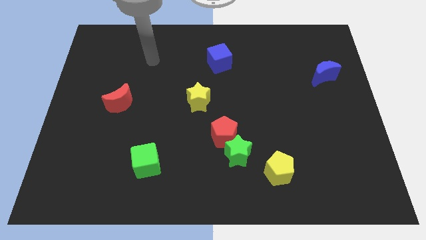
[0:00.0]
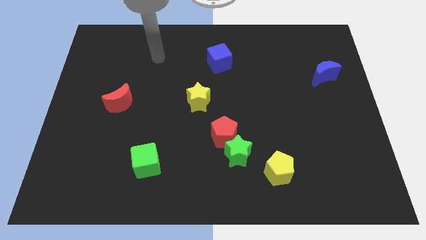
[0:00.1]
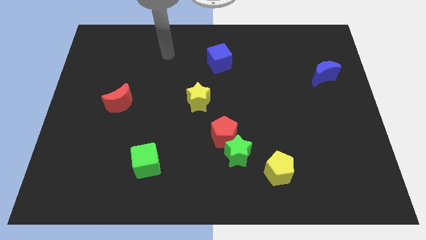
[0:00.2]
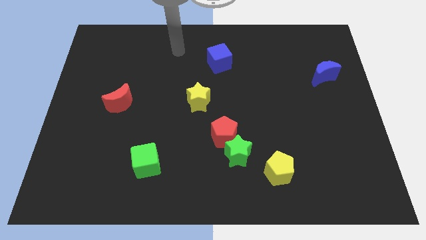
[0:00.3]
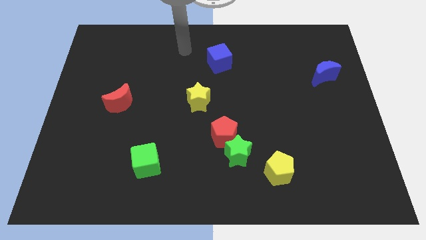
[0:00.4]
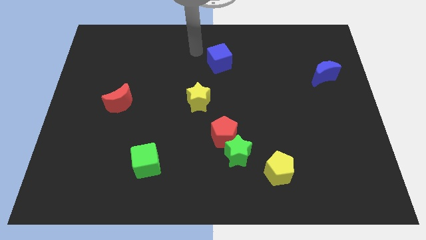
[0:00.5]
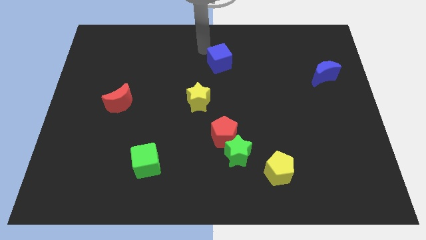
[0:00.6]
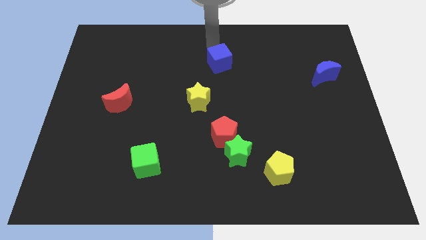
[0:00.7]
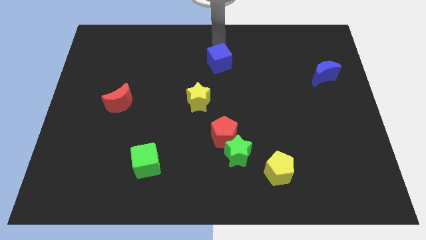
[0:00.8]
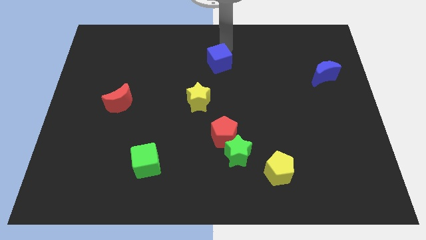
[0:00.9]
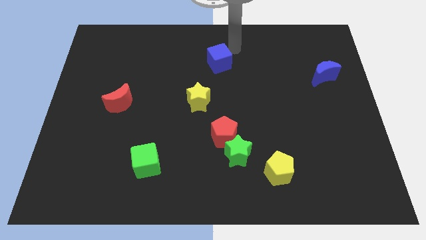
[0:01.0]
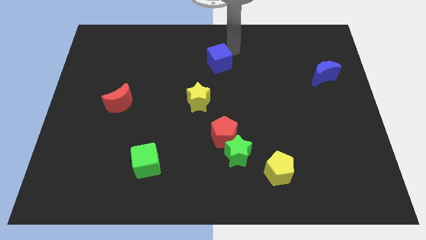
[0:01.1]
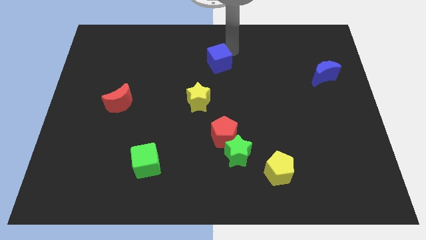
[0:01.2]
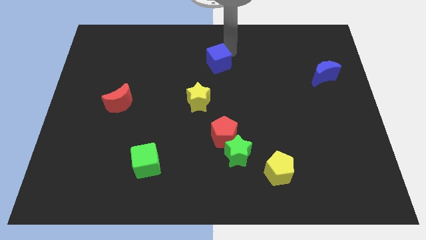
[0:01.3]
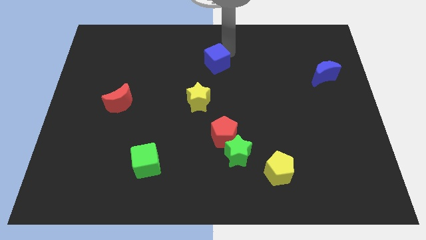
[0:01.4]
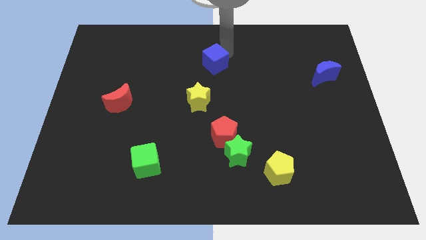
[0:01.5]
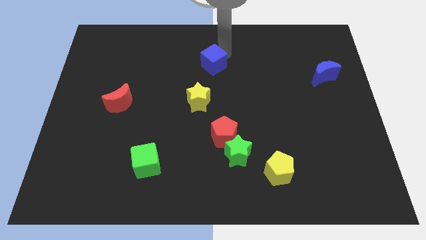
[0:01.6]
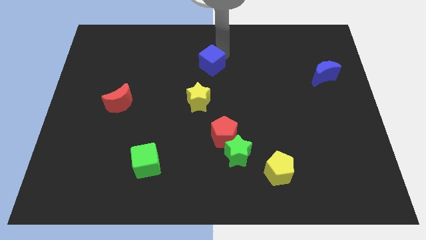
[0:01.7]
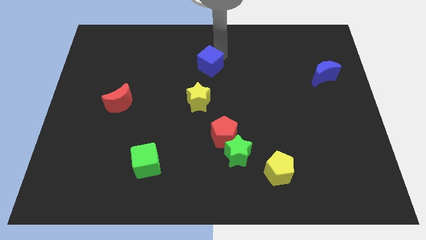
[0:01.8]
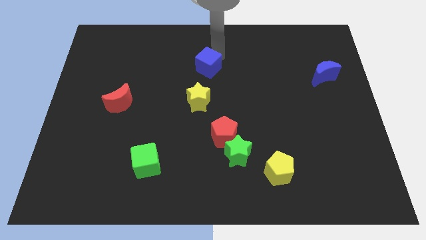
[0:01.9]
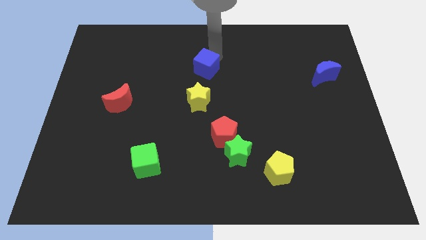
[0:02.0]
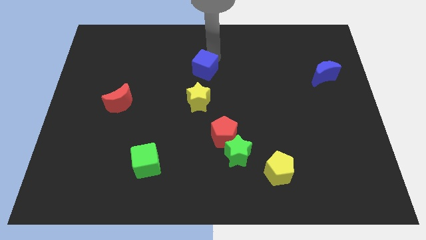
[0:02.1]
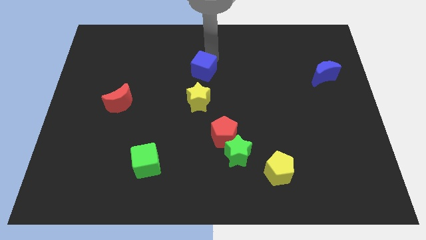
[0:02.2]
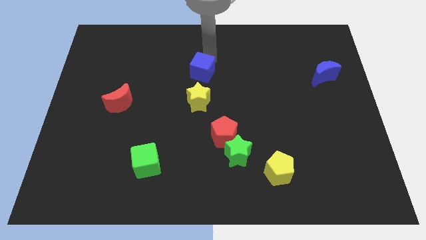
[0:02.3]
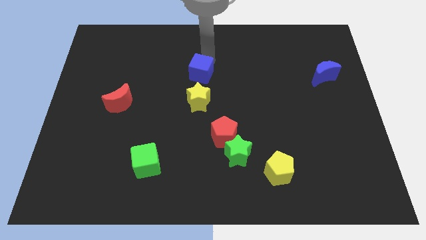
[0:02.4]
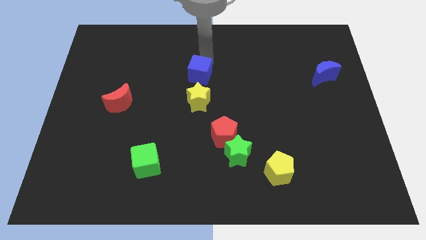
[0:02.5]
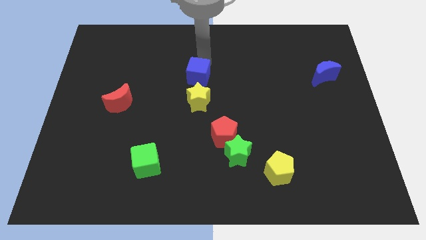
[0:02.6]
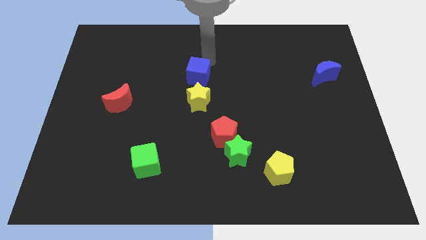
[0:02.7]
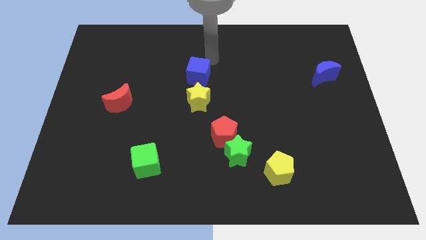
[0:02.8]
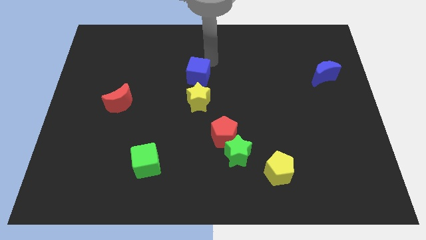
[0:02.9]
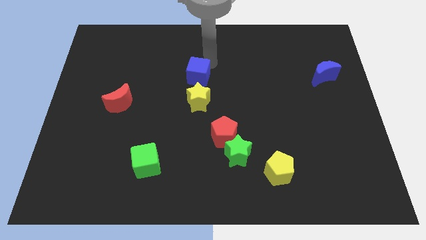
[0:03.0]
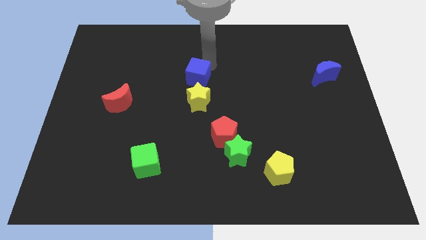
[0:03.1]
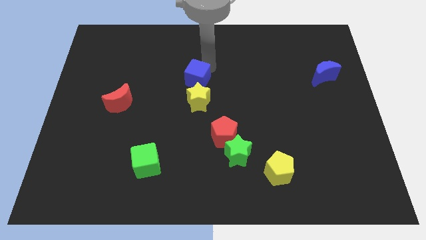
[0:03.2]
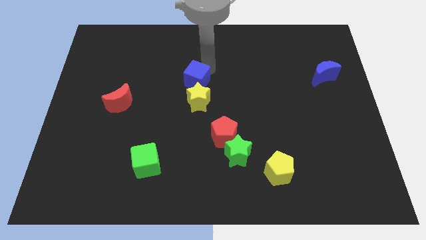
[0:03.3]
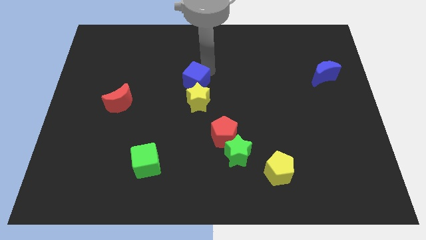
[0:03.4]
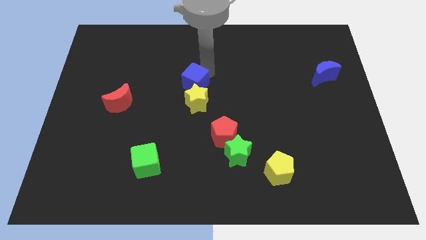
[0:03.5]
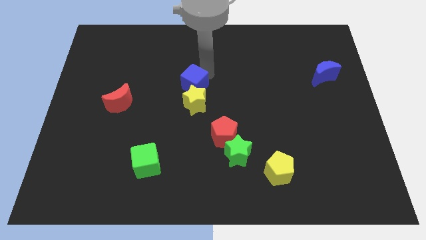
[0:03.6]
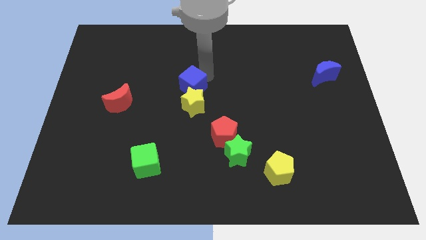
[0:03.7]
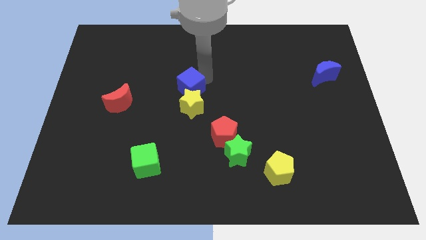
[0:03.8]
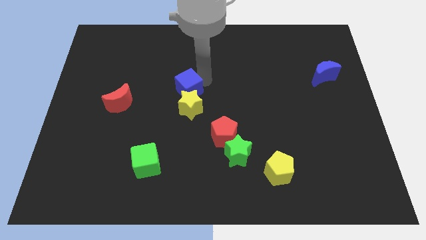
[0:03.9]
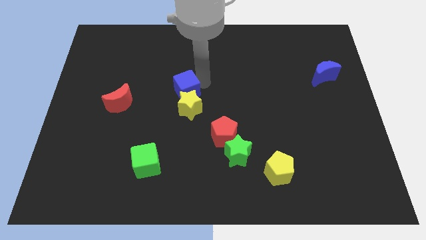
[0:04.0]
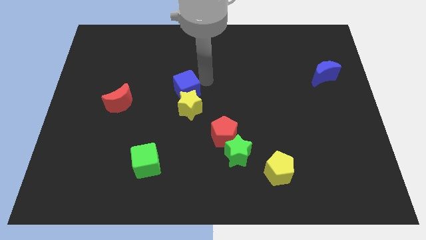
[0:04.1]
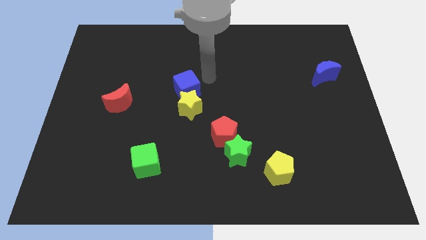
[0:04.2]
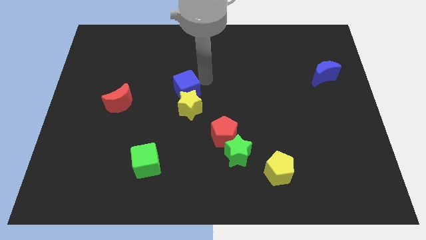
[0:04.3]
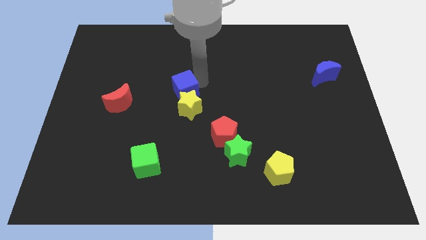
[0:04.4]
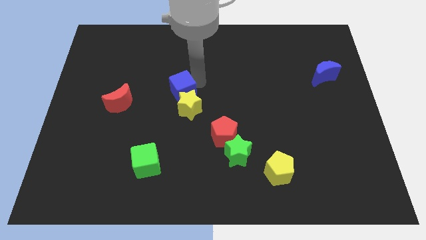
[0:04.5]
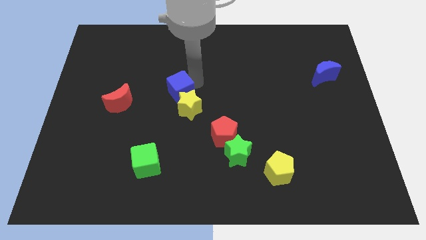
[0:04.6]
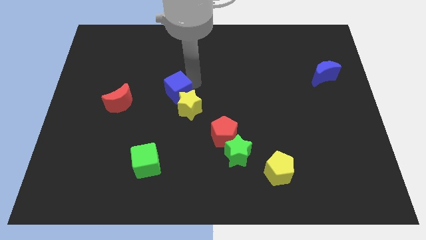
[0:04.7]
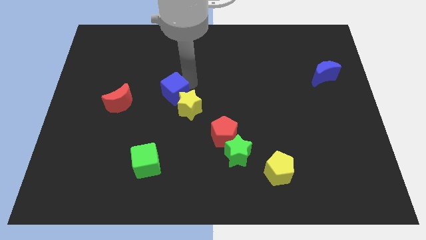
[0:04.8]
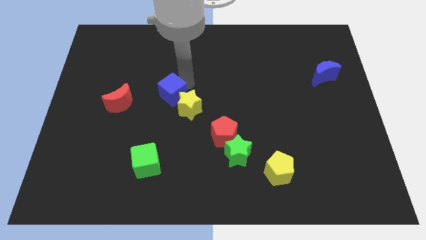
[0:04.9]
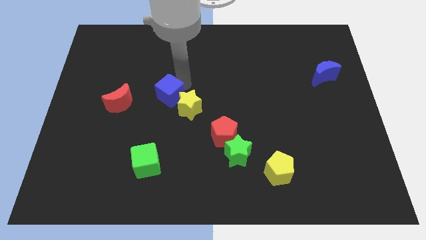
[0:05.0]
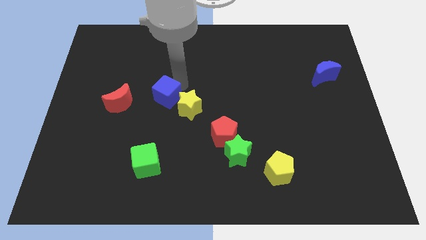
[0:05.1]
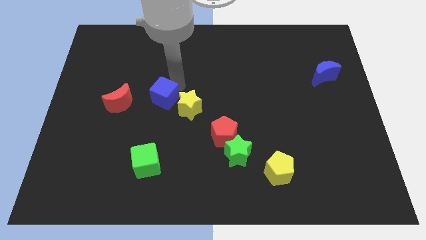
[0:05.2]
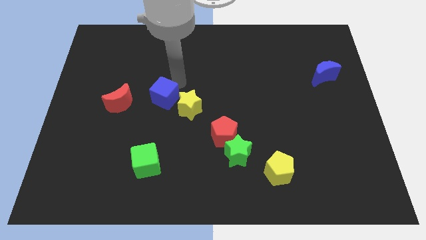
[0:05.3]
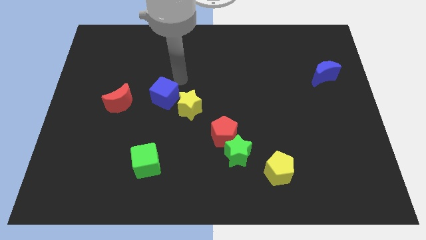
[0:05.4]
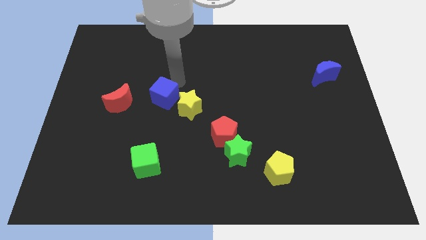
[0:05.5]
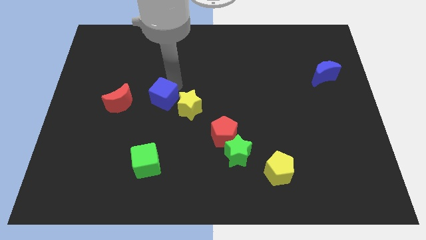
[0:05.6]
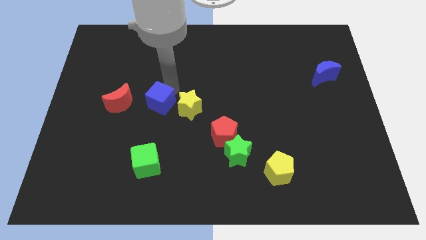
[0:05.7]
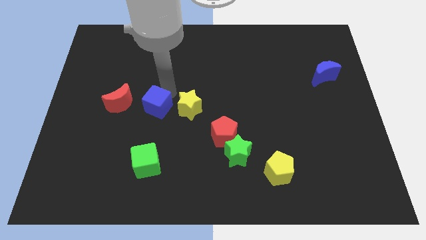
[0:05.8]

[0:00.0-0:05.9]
push the blue cube downwards and to the left diagonally

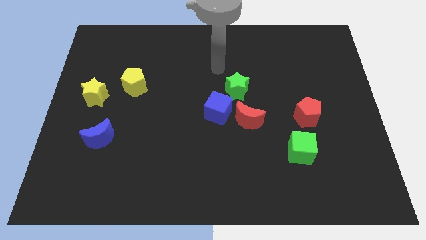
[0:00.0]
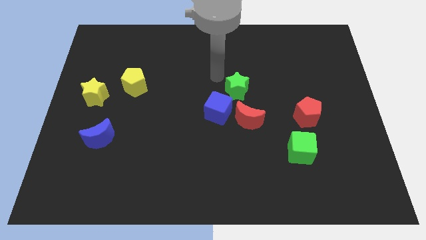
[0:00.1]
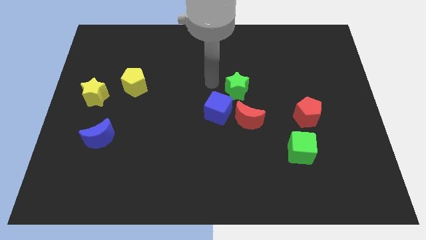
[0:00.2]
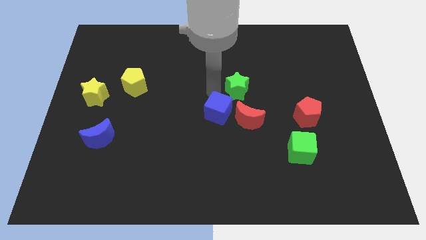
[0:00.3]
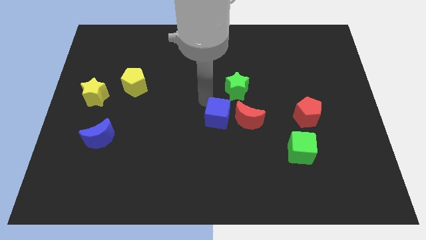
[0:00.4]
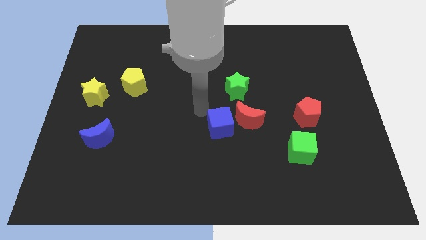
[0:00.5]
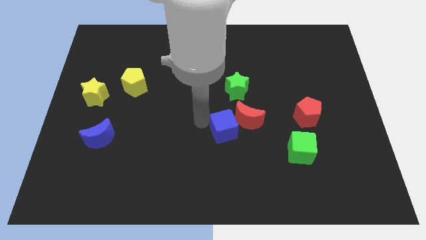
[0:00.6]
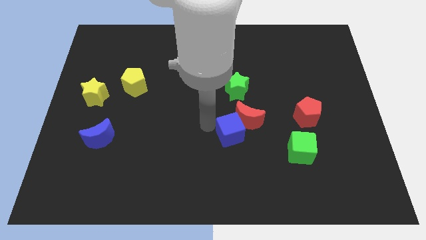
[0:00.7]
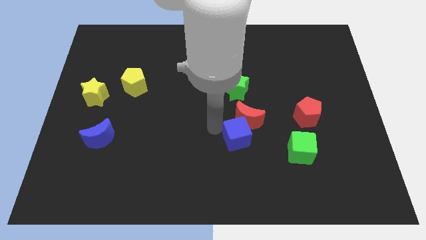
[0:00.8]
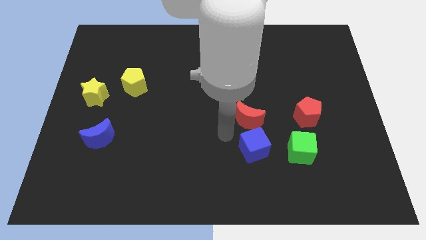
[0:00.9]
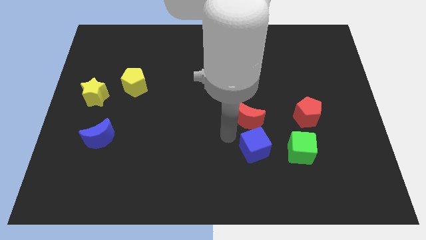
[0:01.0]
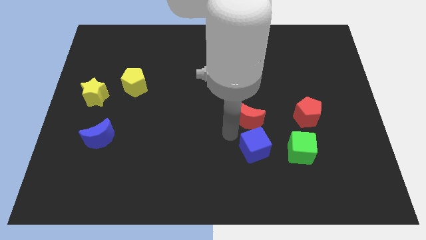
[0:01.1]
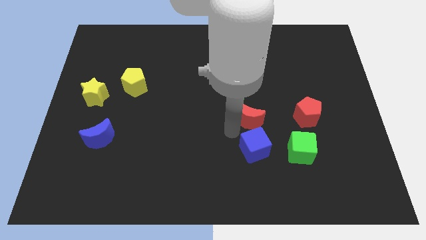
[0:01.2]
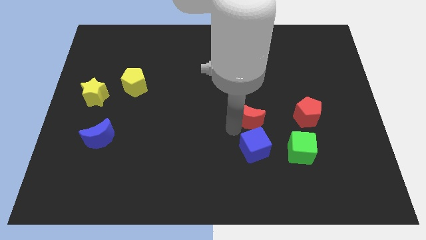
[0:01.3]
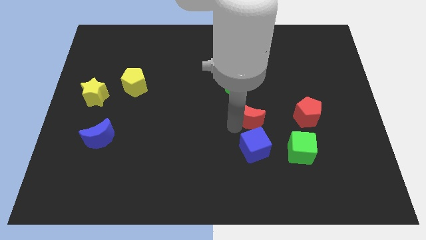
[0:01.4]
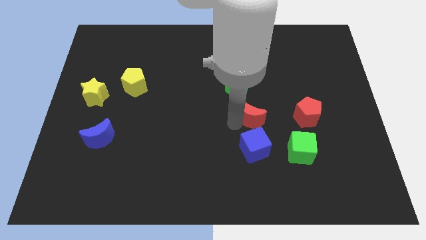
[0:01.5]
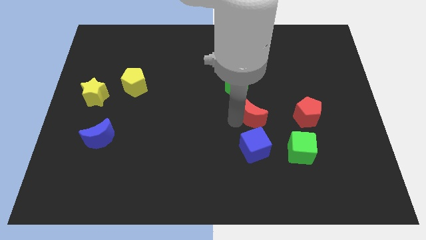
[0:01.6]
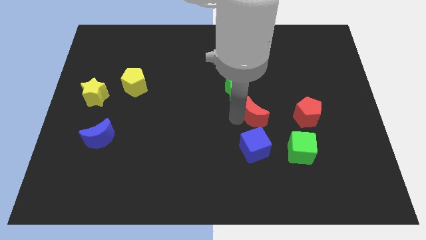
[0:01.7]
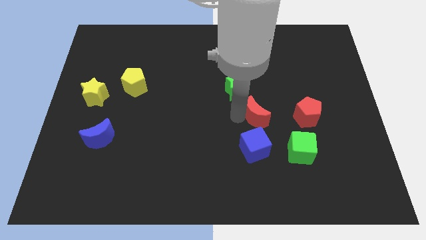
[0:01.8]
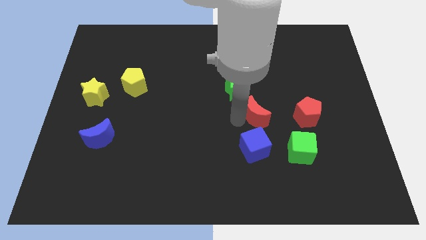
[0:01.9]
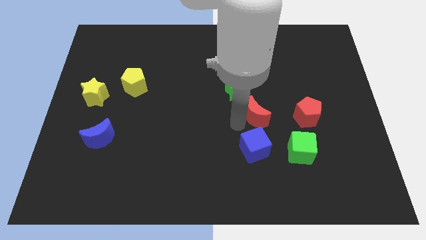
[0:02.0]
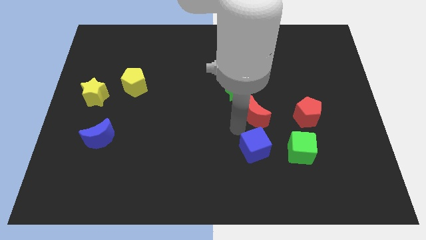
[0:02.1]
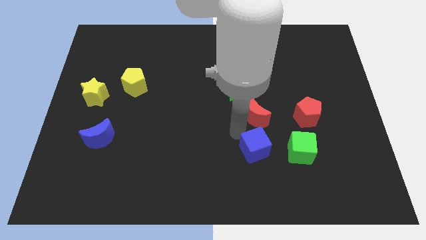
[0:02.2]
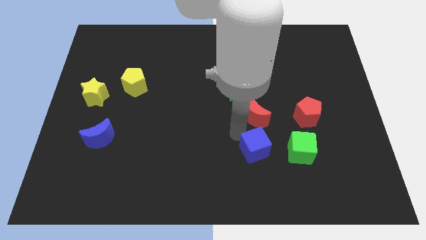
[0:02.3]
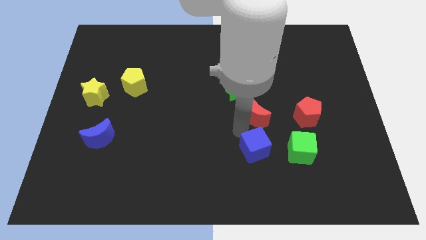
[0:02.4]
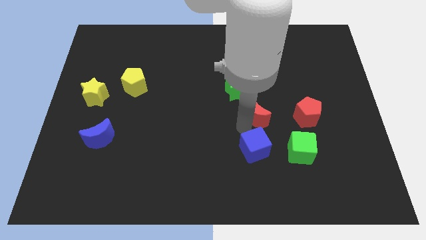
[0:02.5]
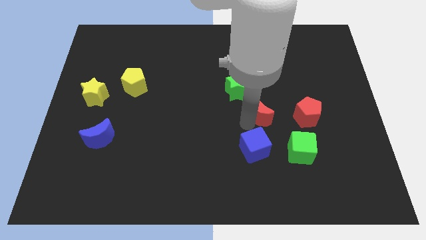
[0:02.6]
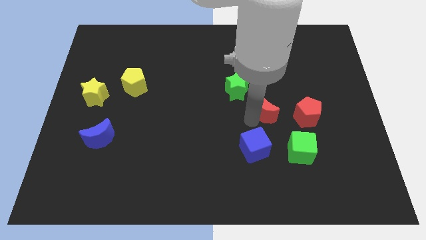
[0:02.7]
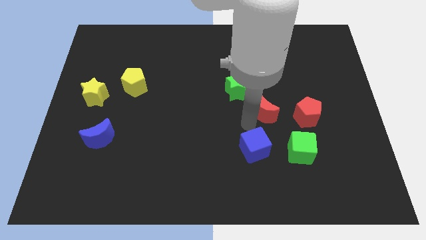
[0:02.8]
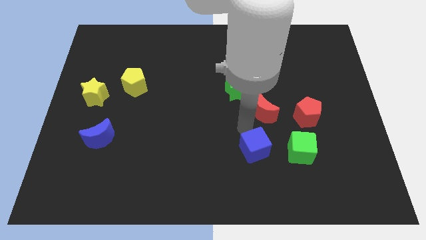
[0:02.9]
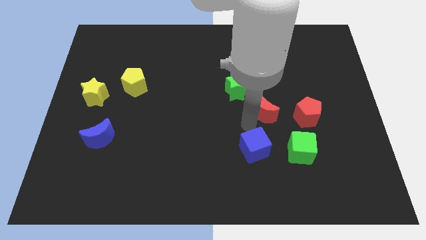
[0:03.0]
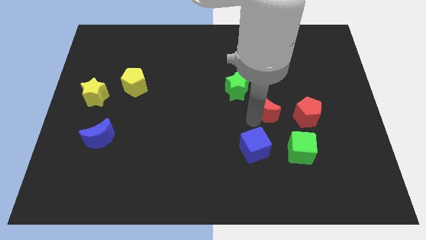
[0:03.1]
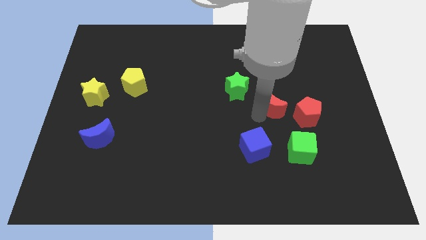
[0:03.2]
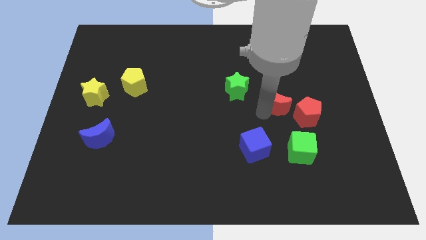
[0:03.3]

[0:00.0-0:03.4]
push the red moon a little upwards and right
